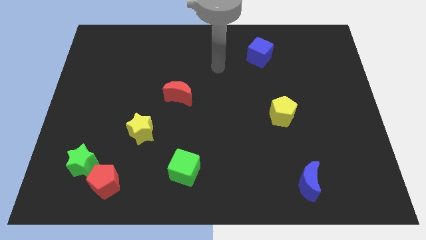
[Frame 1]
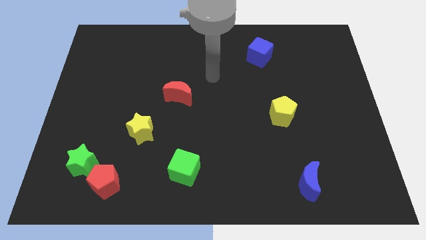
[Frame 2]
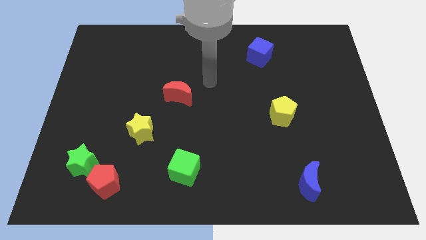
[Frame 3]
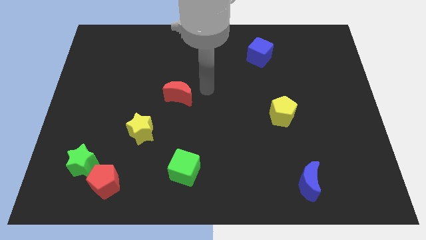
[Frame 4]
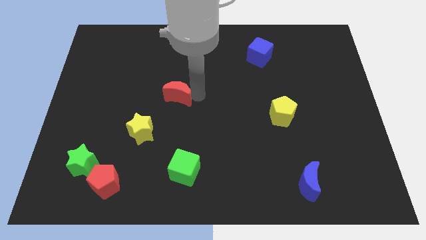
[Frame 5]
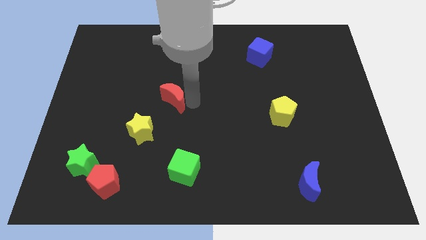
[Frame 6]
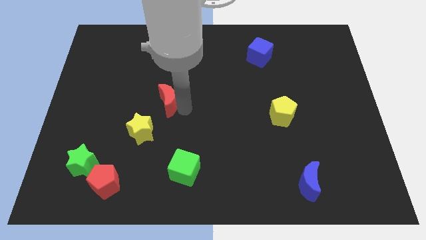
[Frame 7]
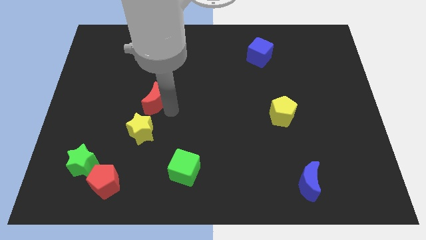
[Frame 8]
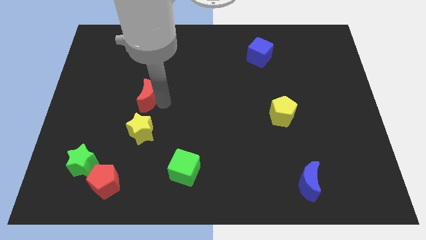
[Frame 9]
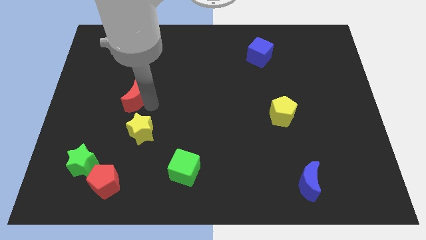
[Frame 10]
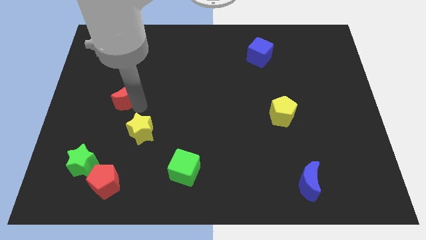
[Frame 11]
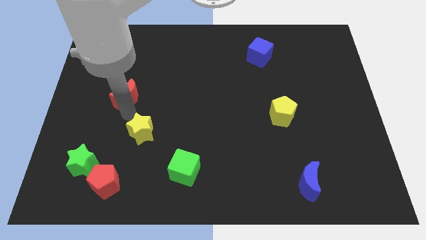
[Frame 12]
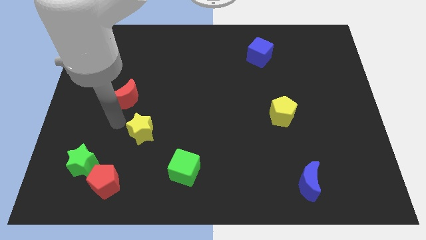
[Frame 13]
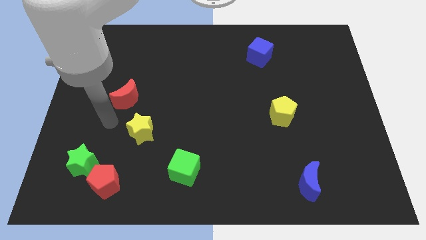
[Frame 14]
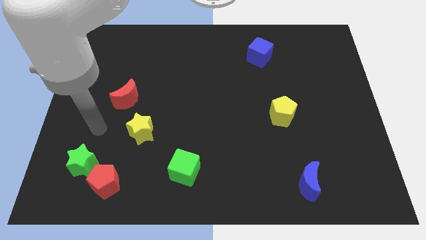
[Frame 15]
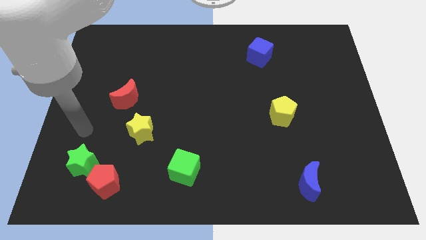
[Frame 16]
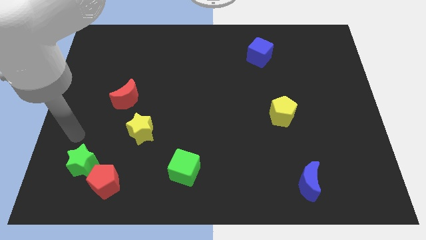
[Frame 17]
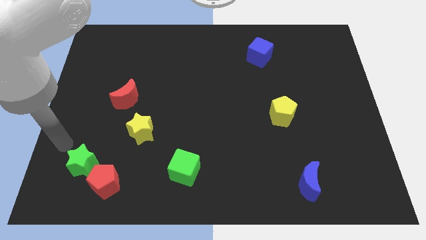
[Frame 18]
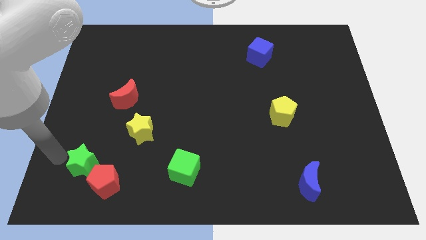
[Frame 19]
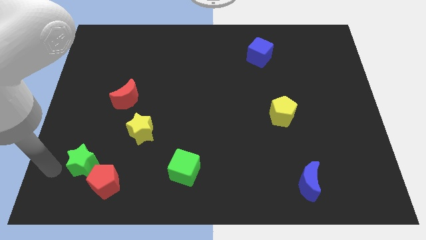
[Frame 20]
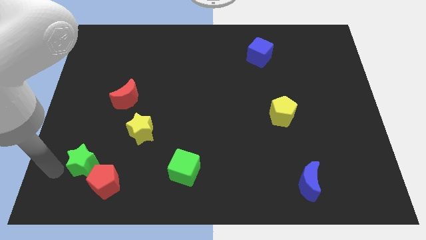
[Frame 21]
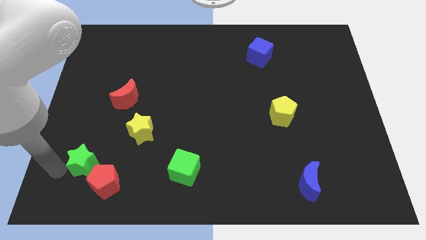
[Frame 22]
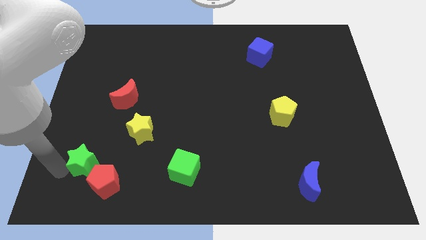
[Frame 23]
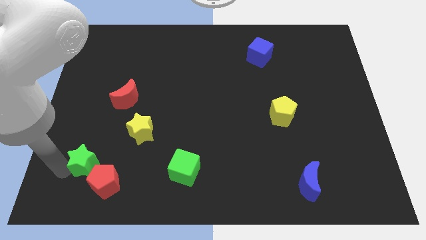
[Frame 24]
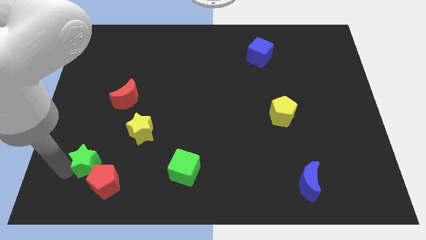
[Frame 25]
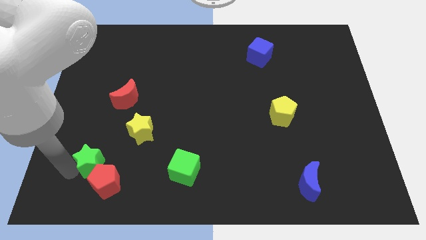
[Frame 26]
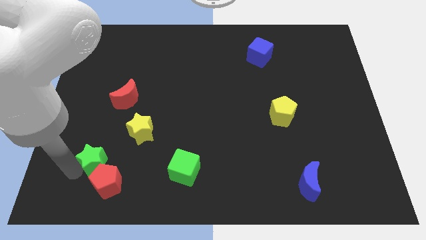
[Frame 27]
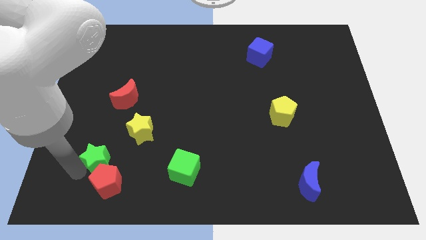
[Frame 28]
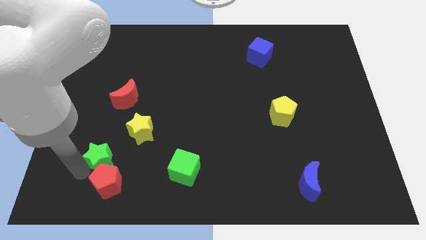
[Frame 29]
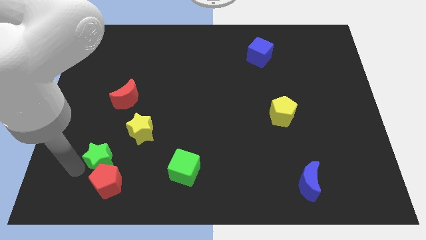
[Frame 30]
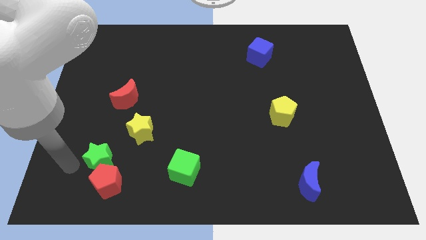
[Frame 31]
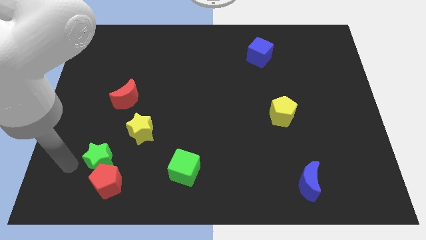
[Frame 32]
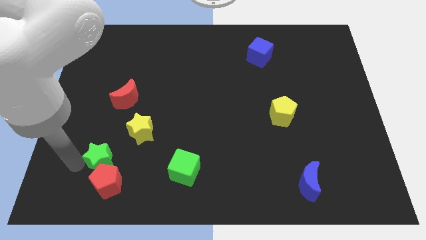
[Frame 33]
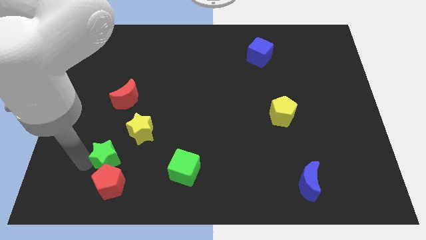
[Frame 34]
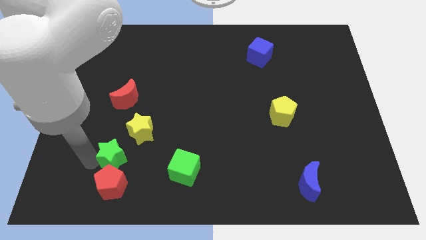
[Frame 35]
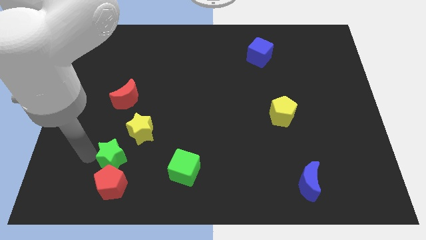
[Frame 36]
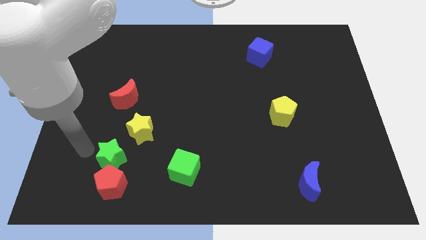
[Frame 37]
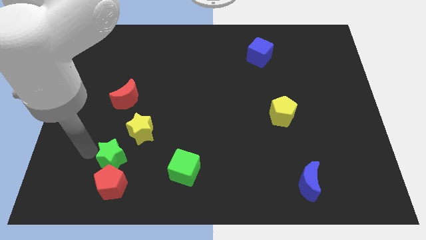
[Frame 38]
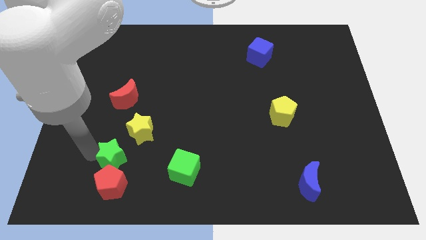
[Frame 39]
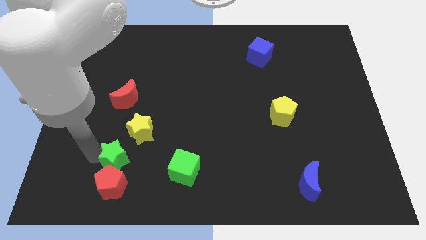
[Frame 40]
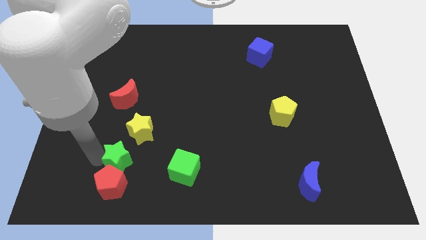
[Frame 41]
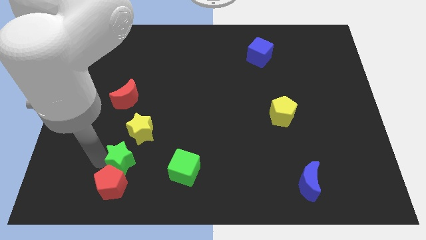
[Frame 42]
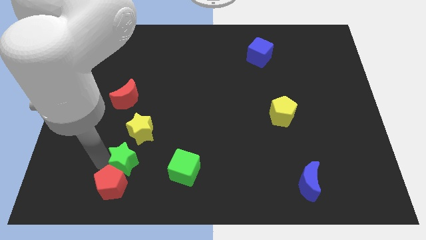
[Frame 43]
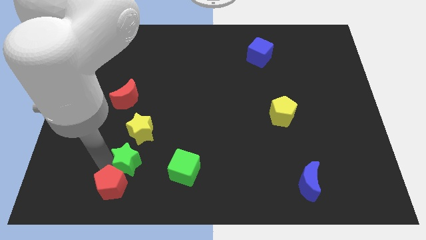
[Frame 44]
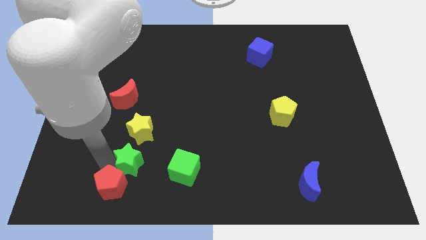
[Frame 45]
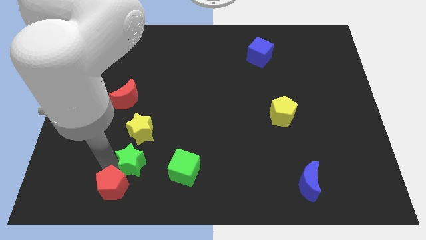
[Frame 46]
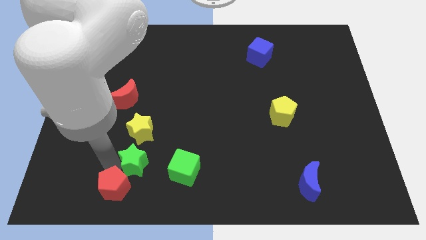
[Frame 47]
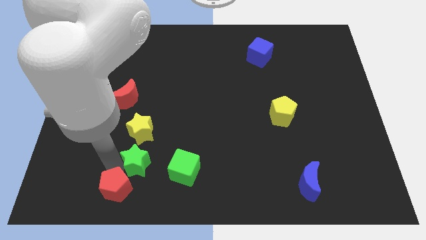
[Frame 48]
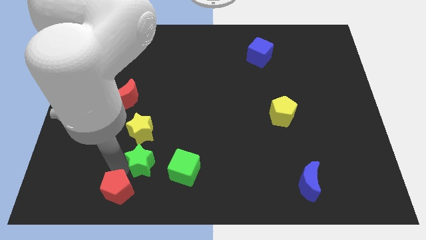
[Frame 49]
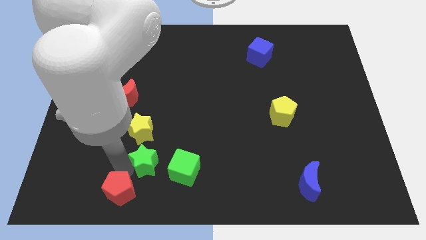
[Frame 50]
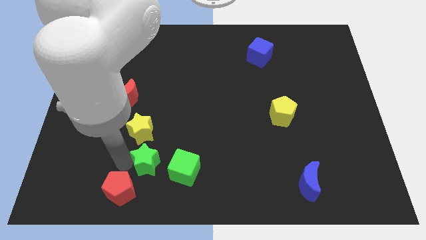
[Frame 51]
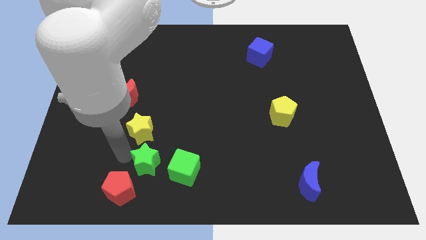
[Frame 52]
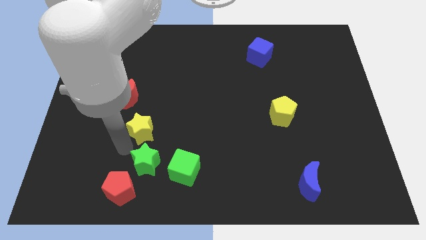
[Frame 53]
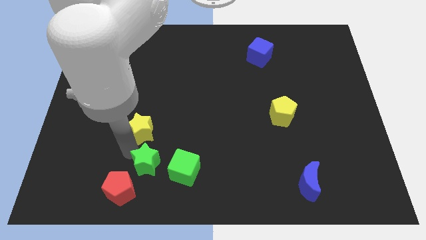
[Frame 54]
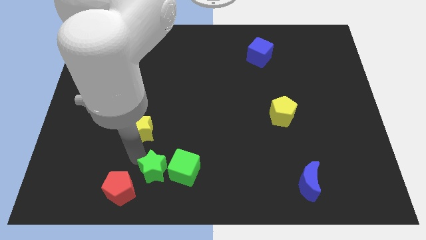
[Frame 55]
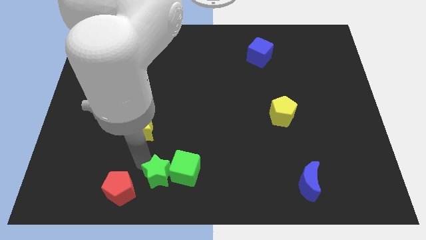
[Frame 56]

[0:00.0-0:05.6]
push the green star to the bottom side
